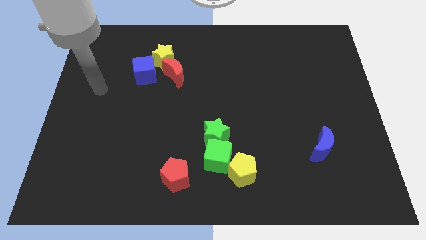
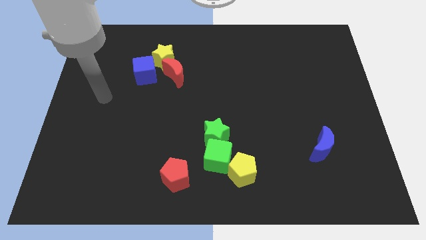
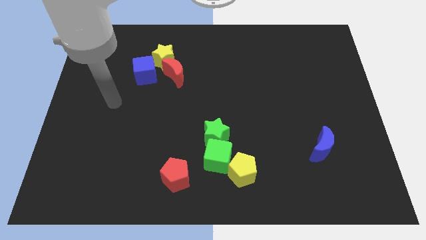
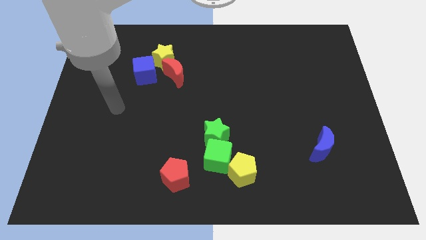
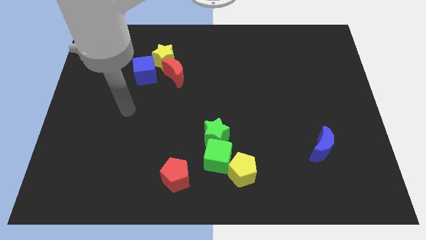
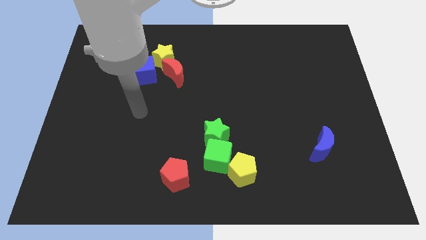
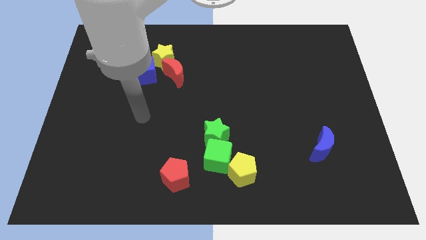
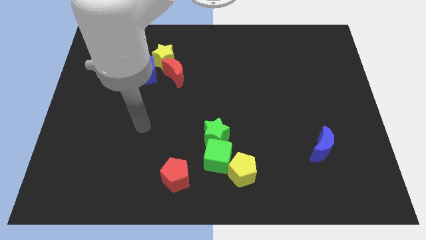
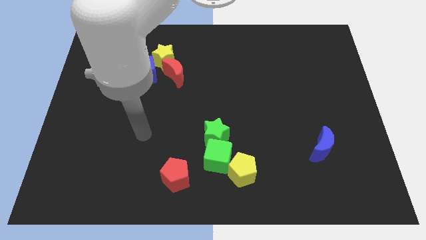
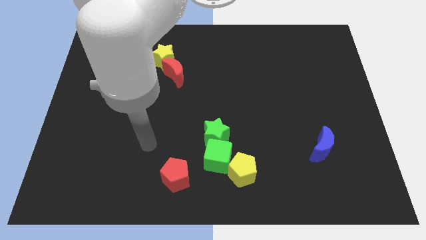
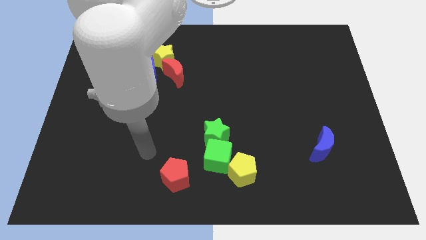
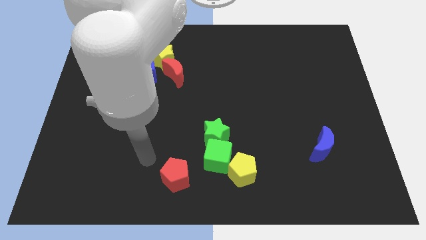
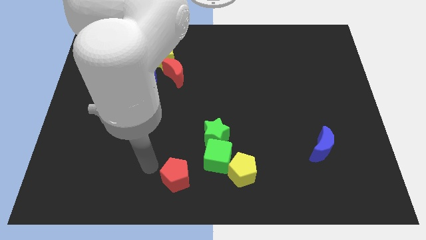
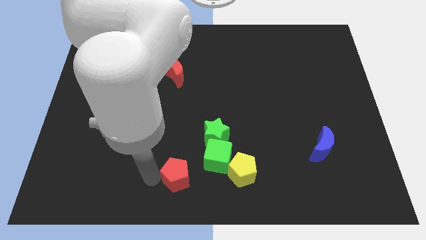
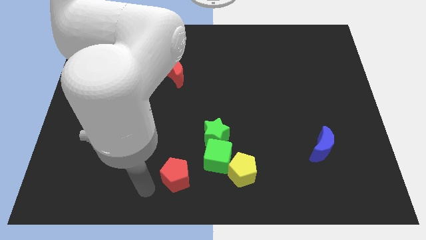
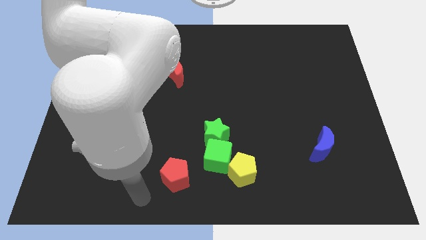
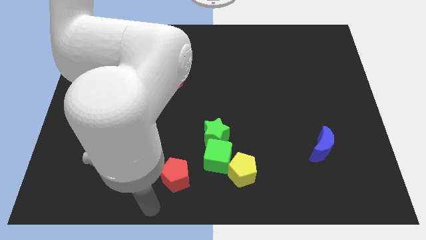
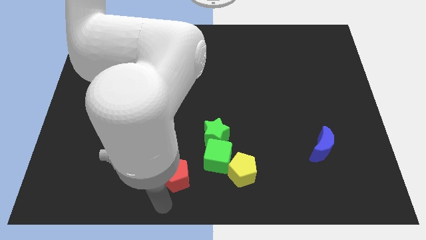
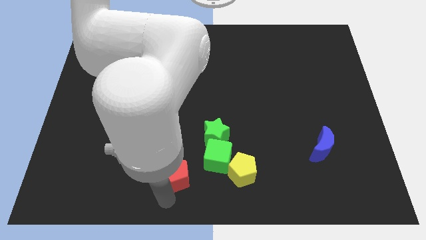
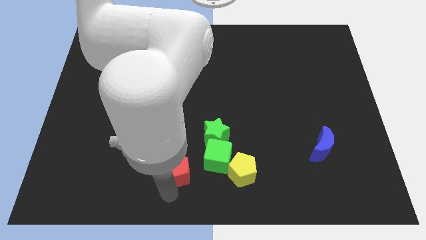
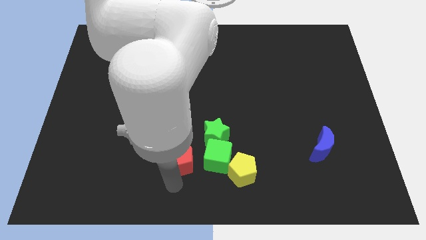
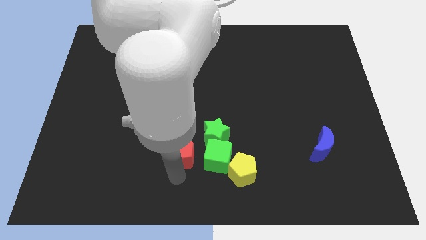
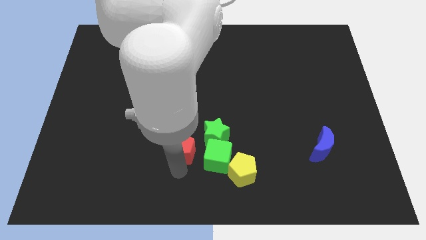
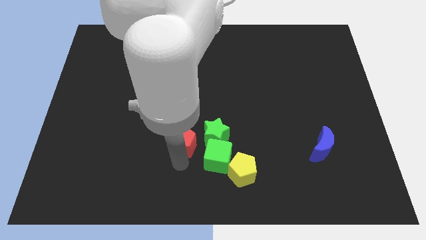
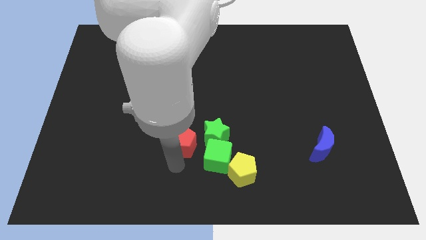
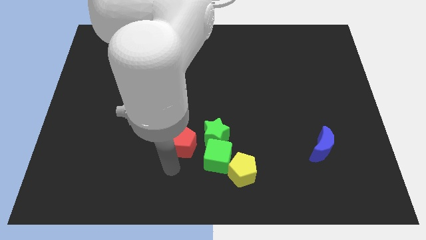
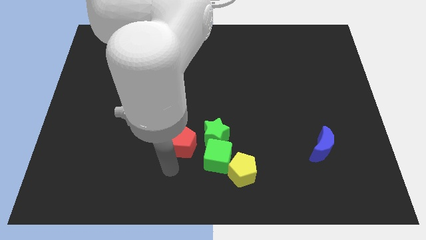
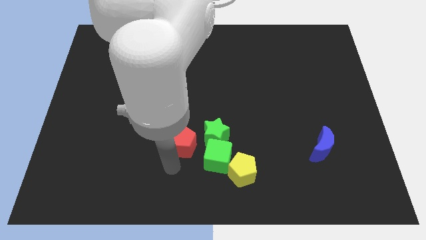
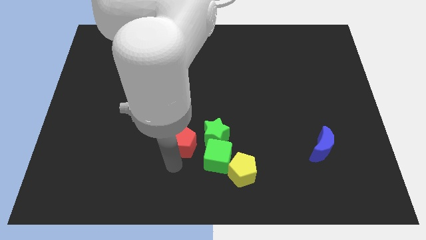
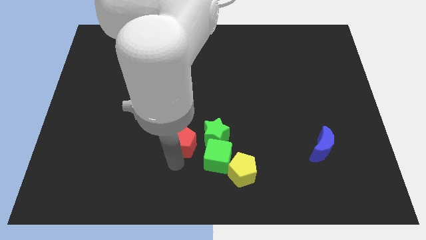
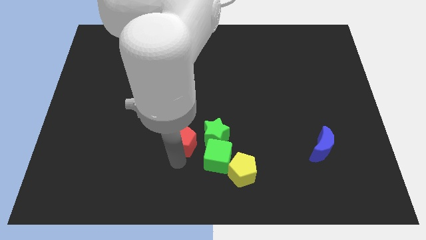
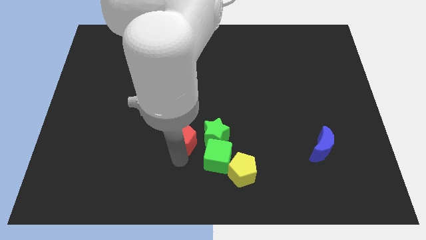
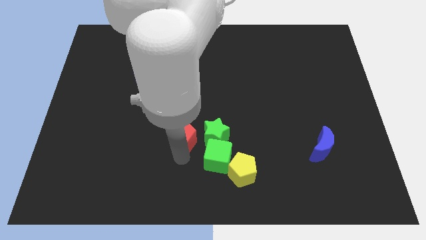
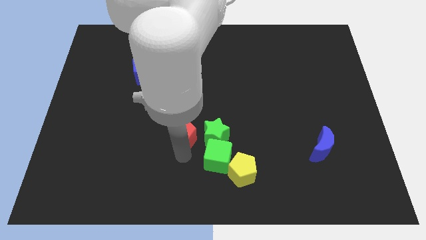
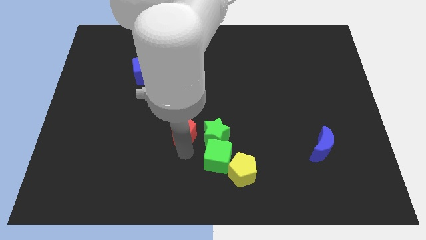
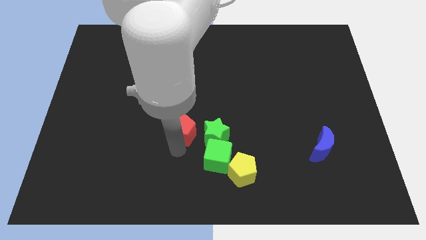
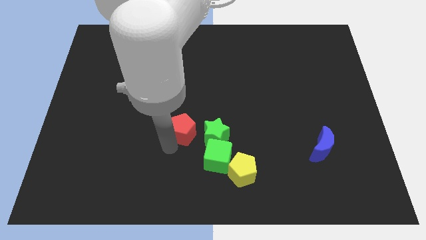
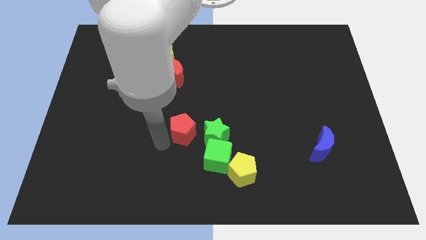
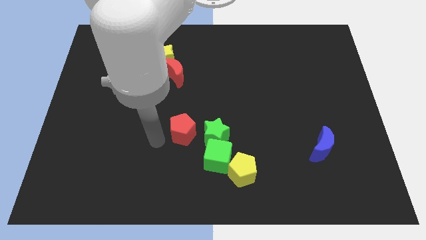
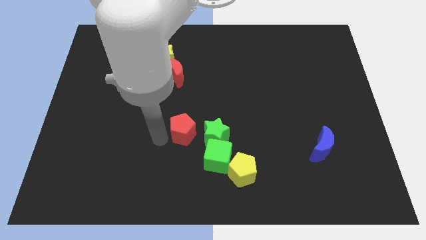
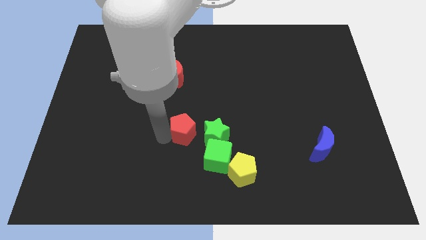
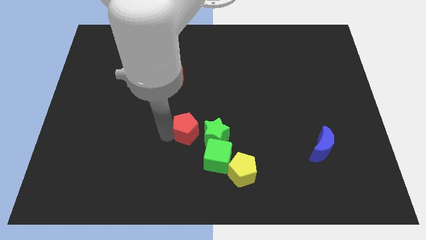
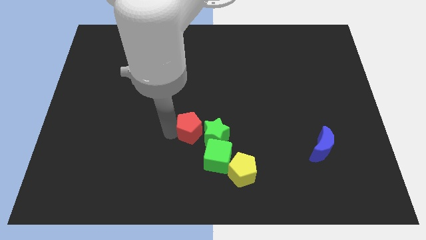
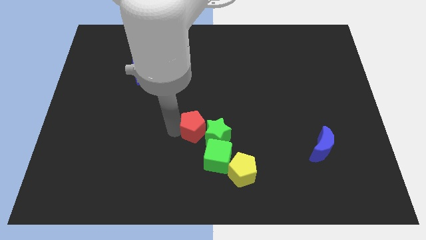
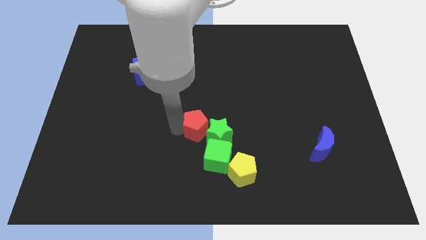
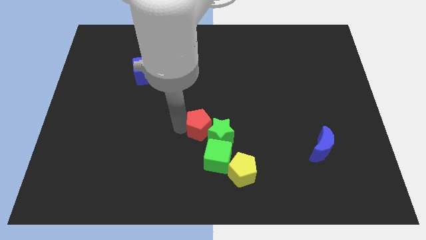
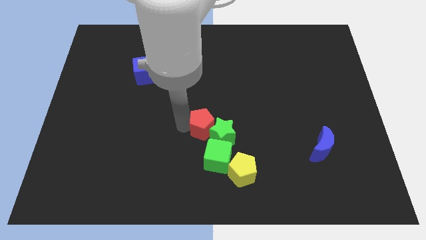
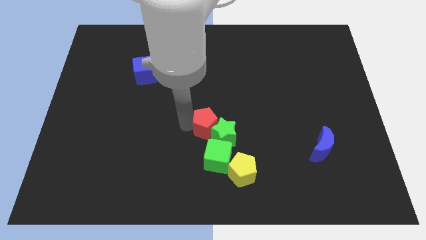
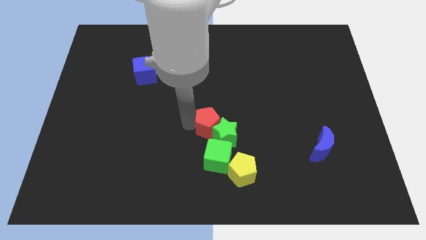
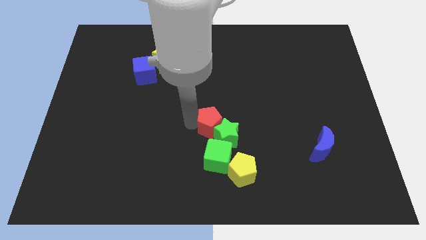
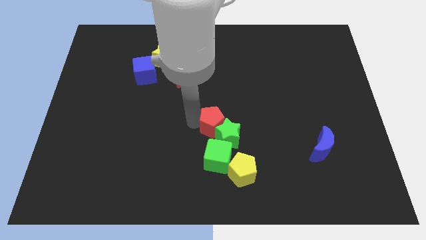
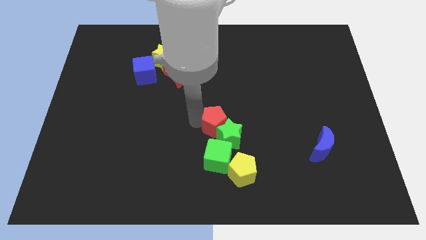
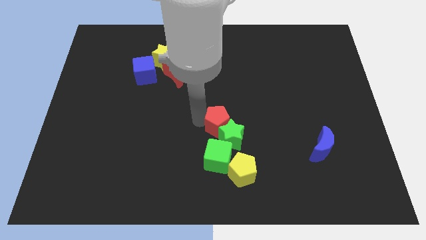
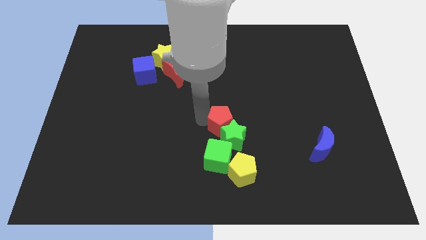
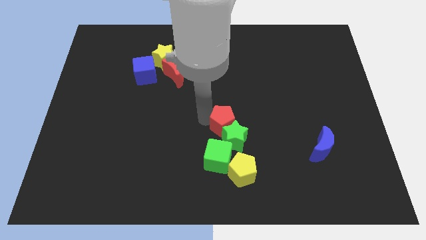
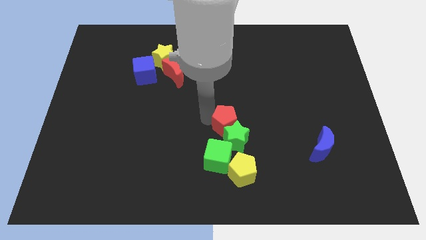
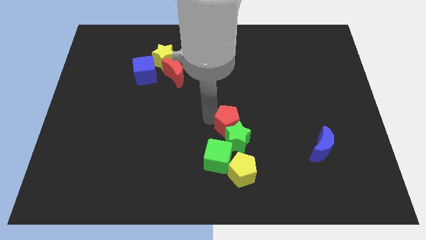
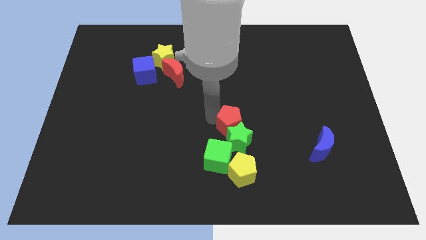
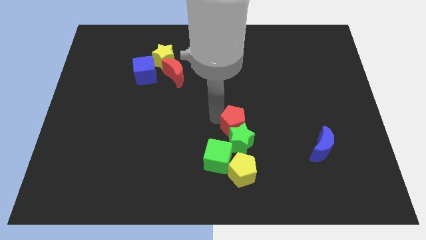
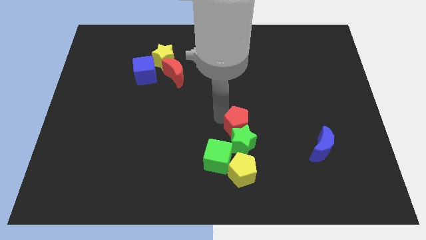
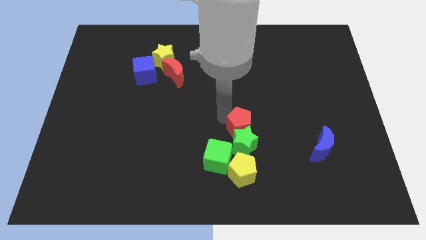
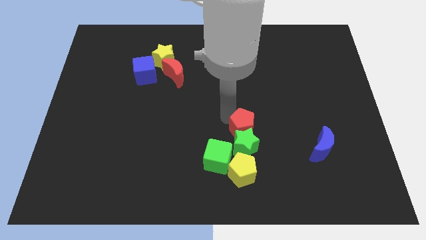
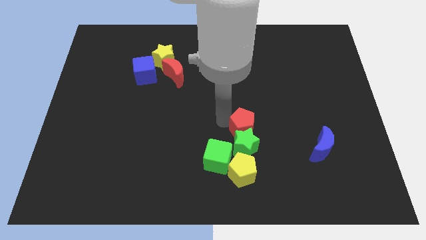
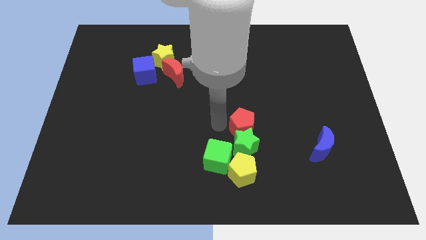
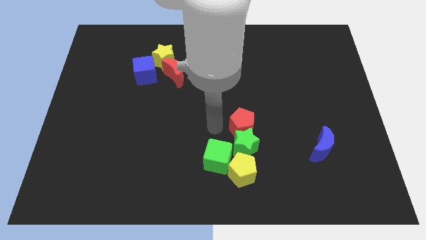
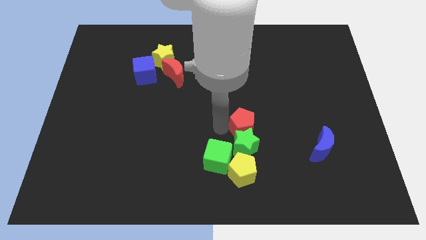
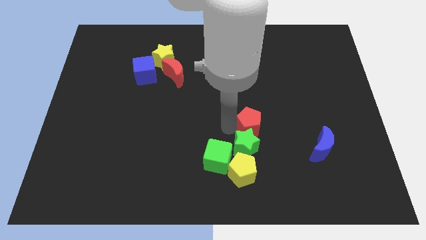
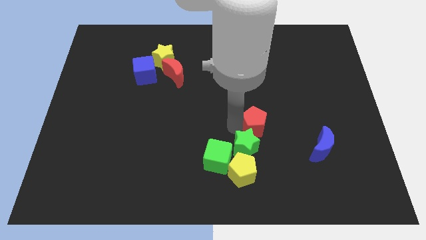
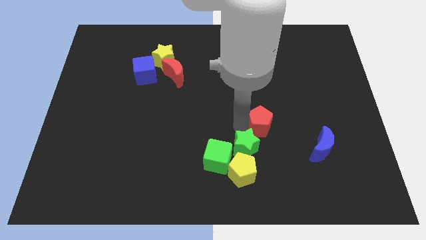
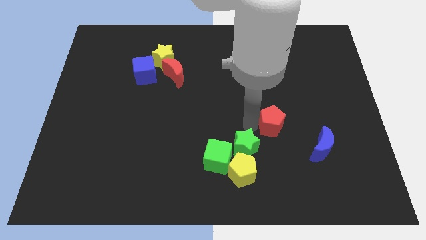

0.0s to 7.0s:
push the red pentagon diagonally up and to the left of the blue moon
